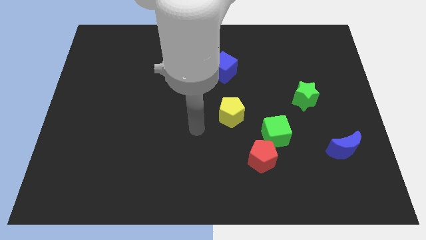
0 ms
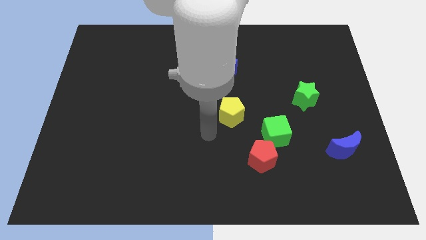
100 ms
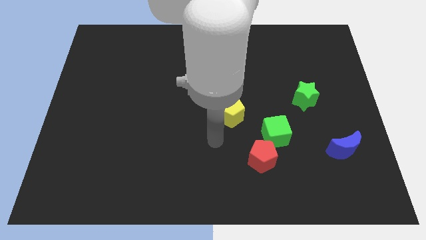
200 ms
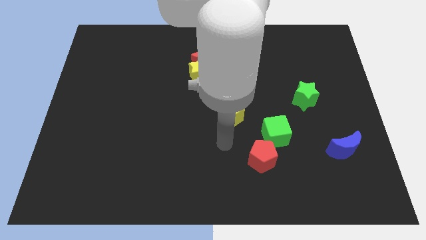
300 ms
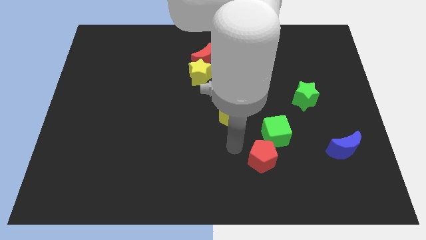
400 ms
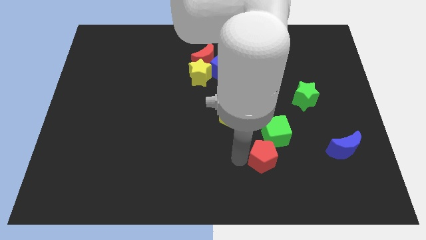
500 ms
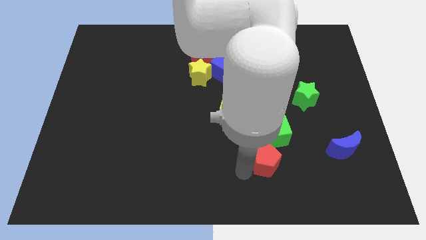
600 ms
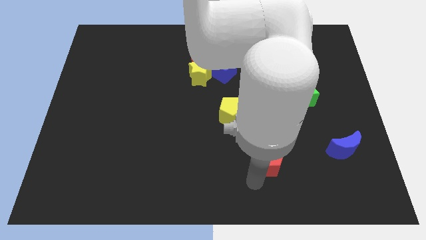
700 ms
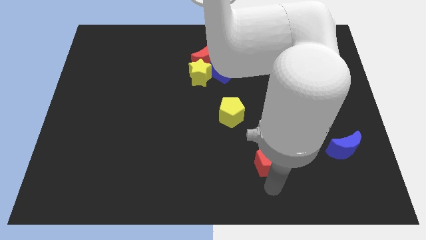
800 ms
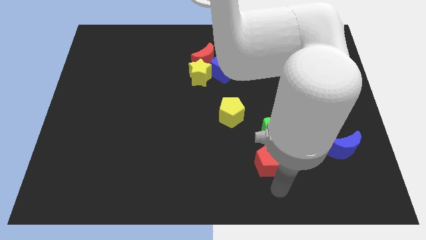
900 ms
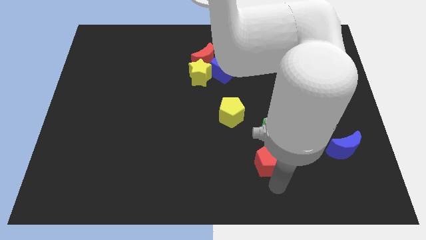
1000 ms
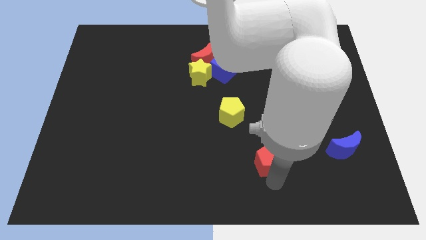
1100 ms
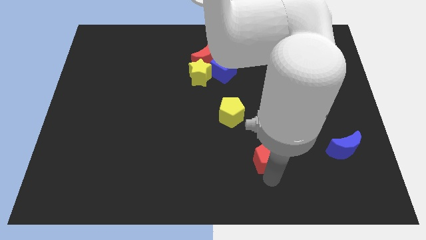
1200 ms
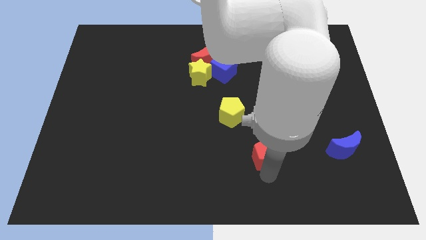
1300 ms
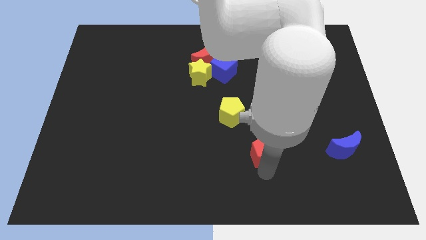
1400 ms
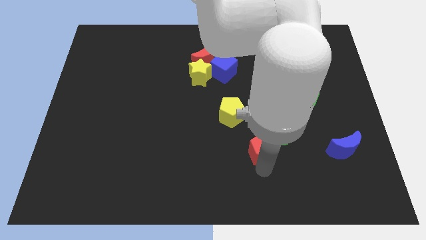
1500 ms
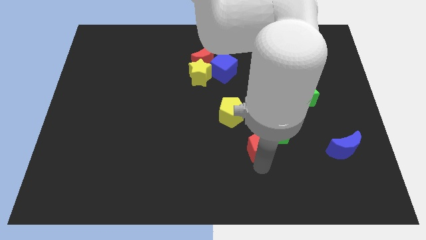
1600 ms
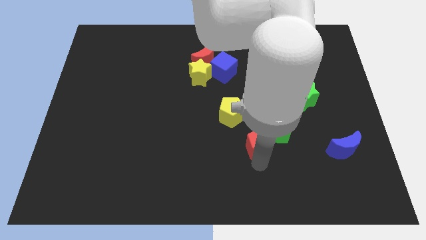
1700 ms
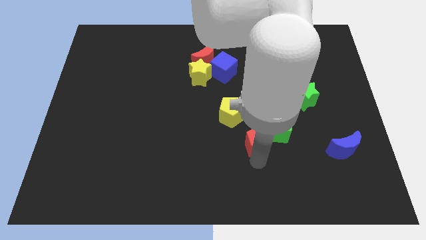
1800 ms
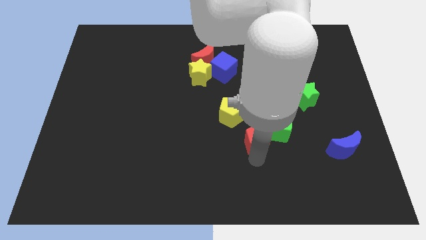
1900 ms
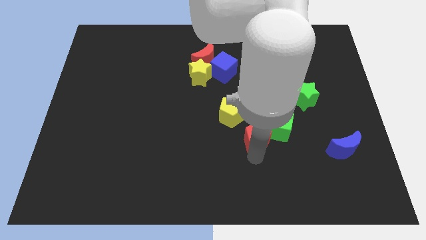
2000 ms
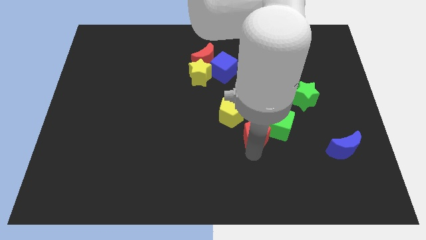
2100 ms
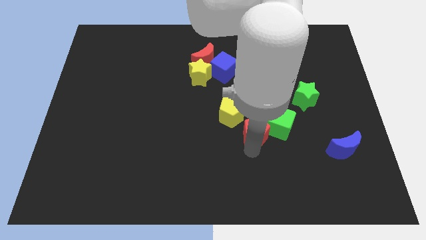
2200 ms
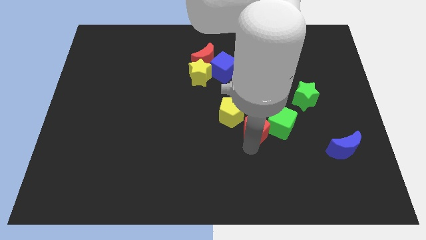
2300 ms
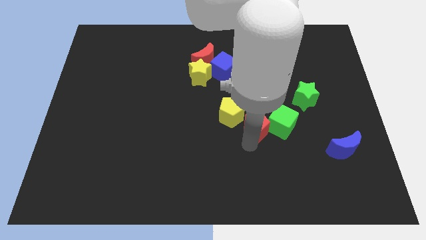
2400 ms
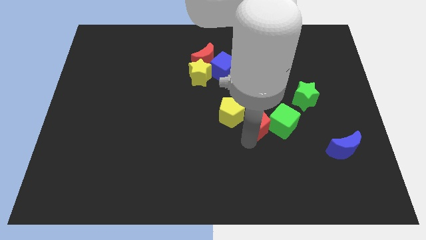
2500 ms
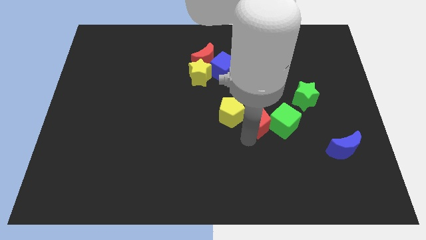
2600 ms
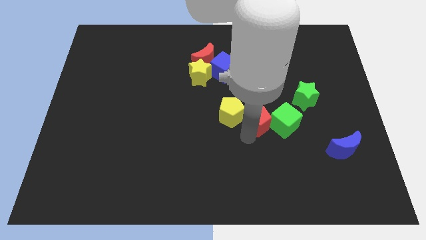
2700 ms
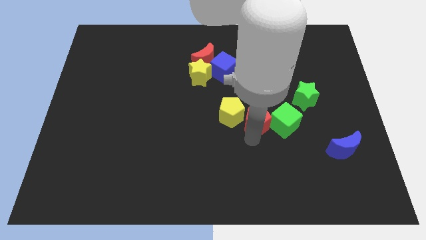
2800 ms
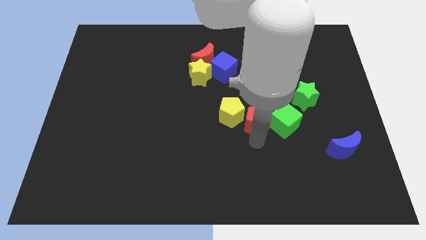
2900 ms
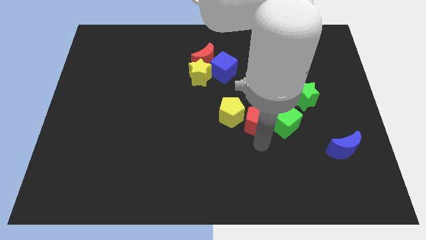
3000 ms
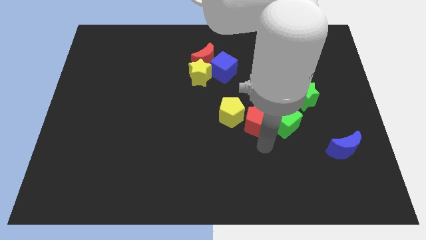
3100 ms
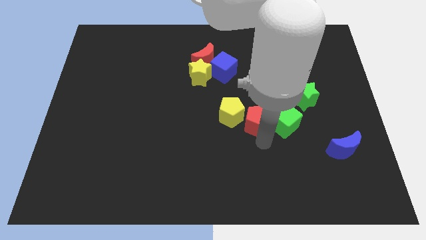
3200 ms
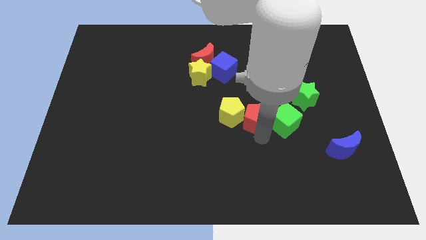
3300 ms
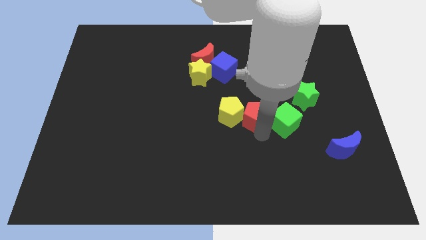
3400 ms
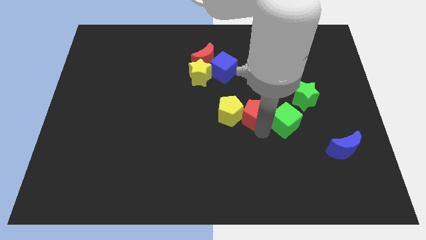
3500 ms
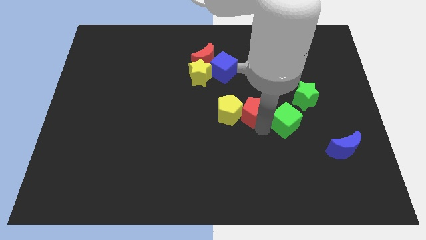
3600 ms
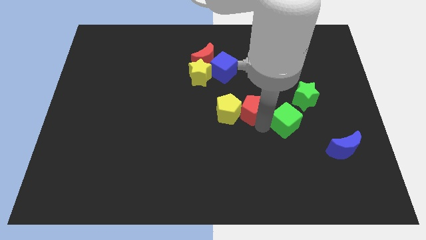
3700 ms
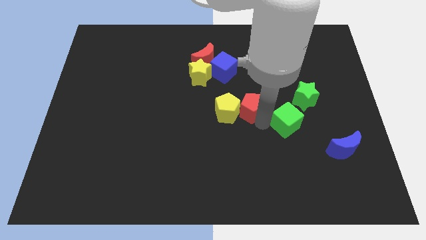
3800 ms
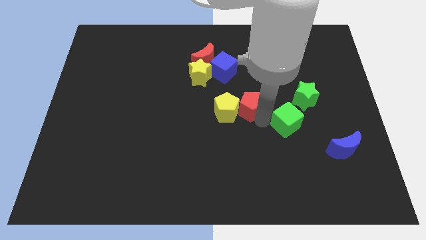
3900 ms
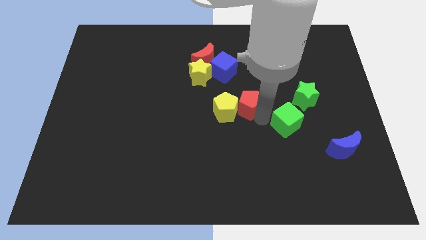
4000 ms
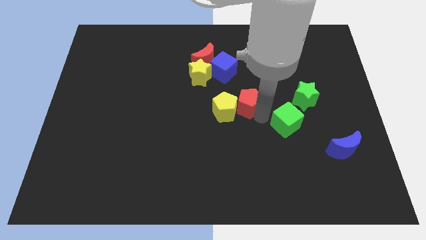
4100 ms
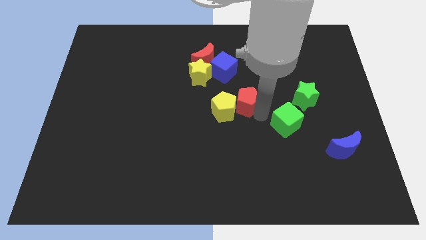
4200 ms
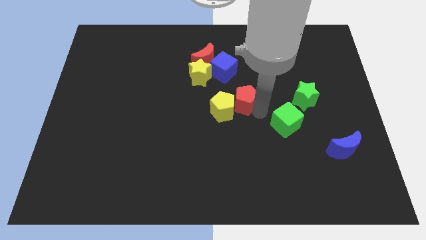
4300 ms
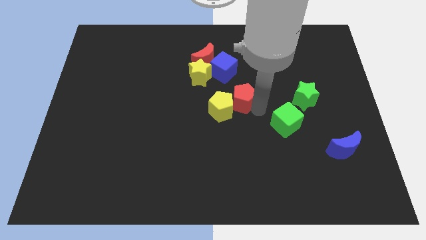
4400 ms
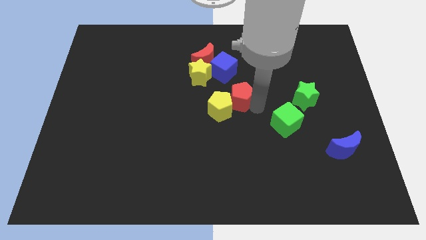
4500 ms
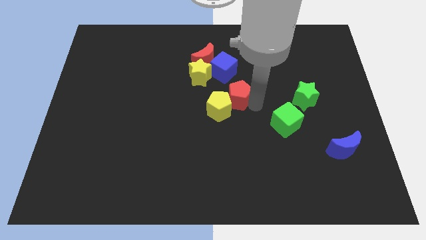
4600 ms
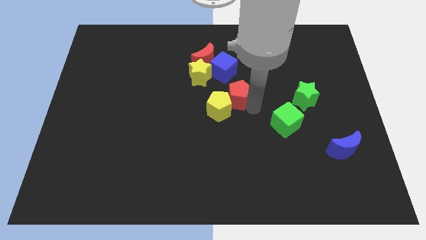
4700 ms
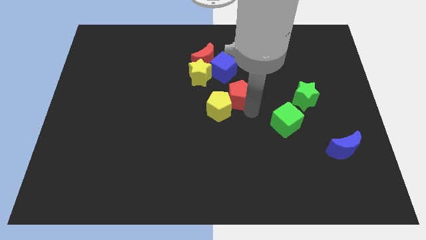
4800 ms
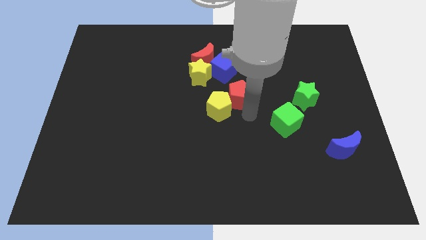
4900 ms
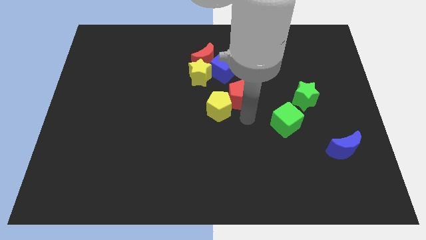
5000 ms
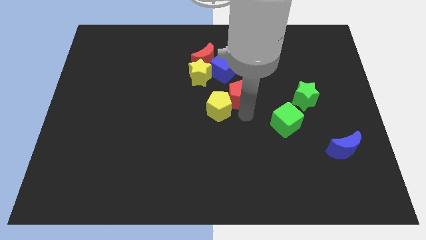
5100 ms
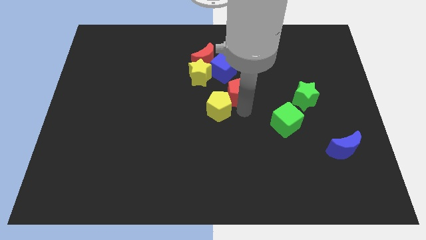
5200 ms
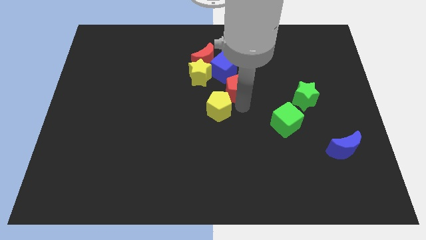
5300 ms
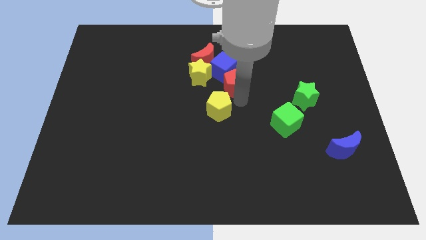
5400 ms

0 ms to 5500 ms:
push the red pentagon towards the blue cube

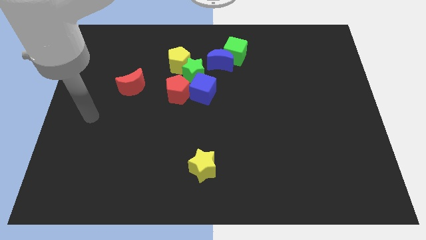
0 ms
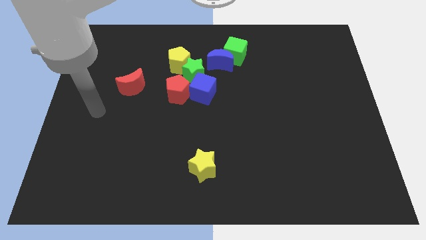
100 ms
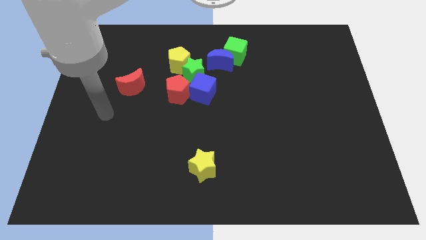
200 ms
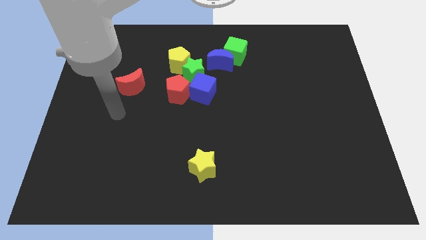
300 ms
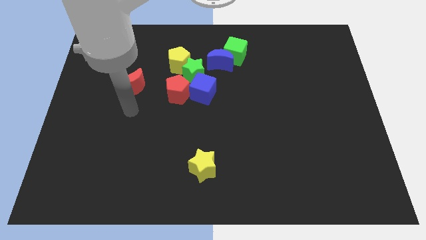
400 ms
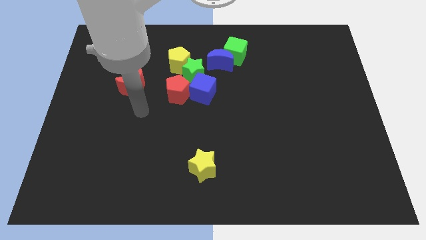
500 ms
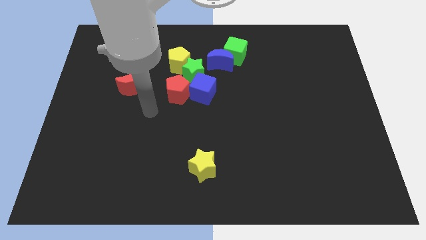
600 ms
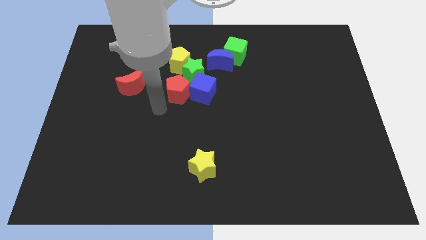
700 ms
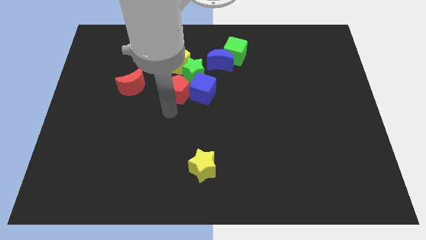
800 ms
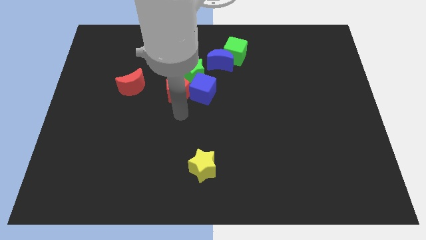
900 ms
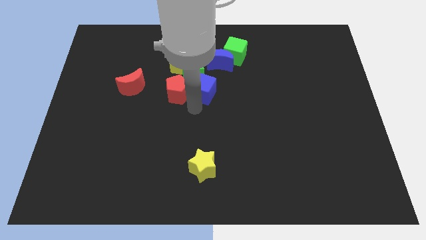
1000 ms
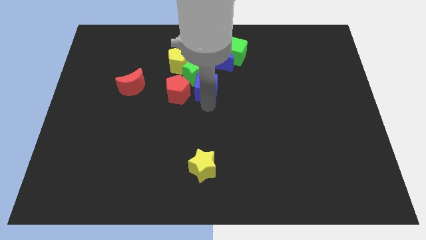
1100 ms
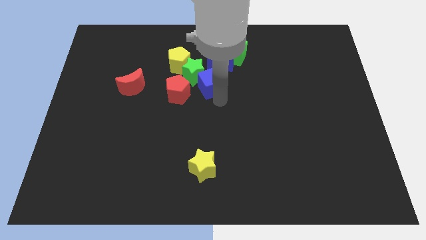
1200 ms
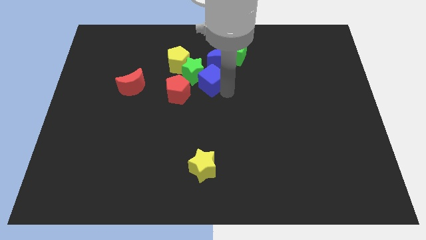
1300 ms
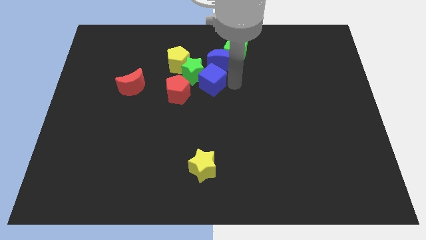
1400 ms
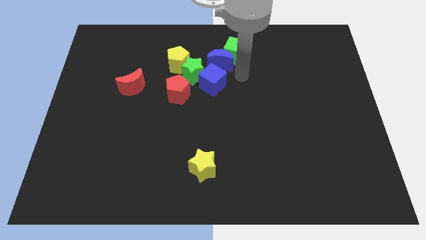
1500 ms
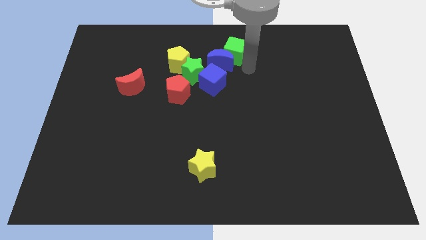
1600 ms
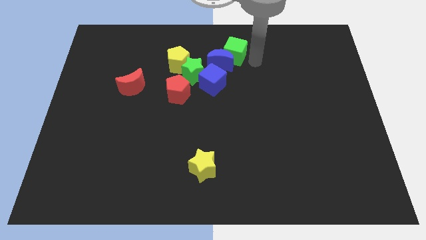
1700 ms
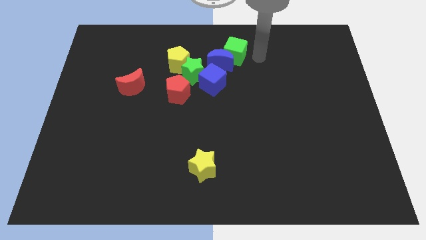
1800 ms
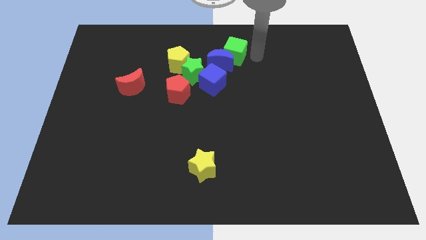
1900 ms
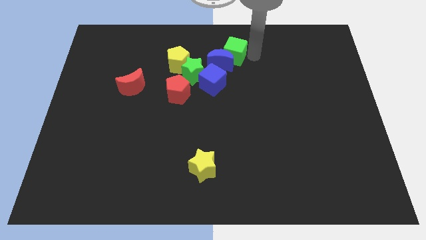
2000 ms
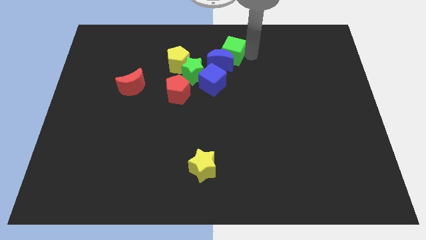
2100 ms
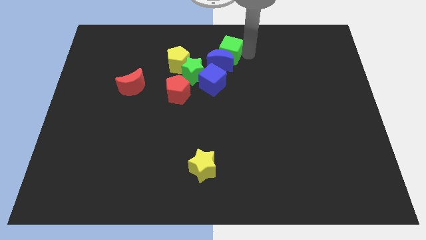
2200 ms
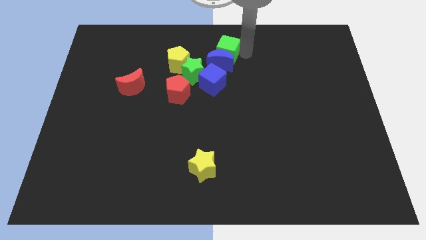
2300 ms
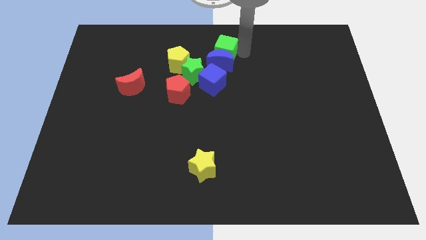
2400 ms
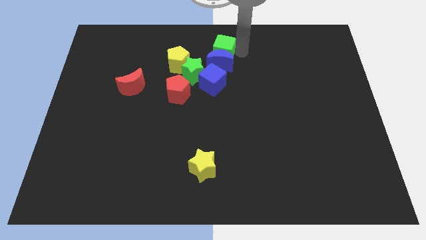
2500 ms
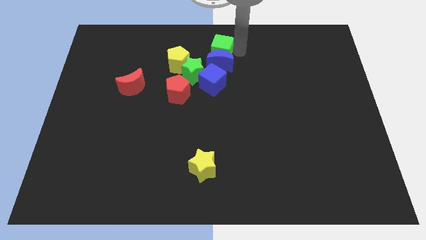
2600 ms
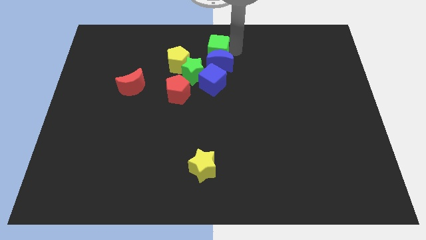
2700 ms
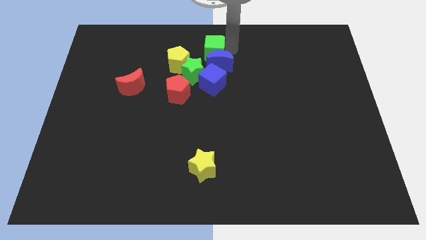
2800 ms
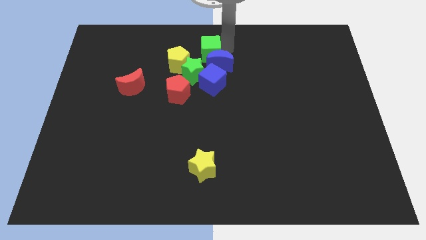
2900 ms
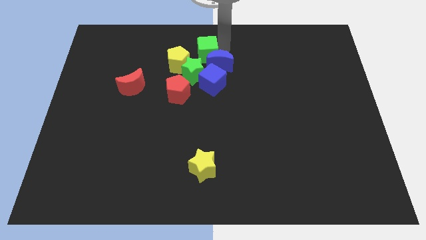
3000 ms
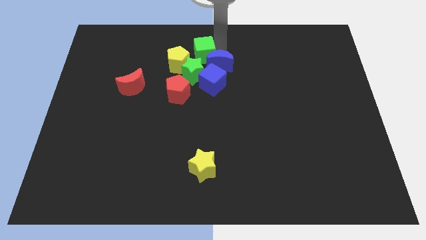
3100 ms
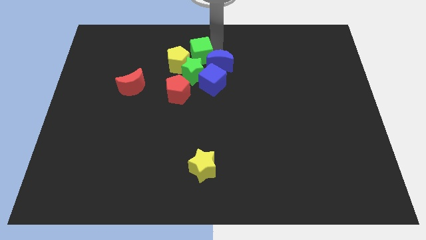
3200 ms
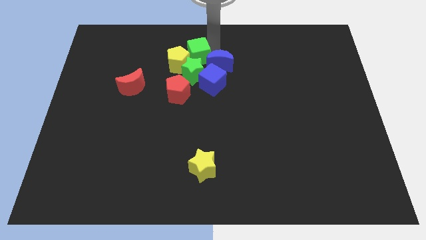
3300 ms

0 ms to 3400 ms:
put the green cube close to the yellow pentagon
